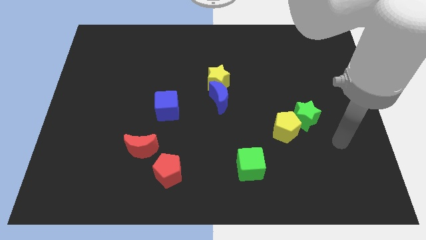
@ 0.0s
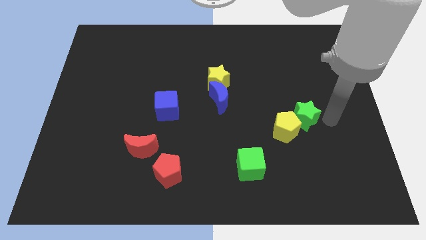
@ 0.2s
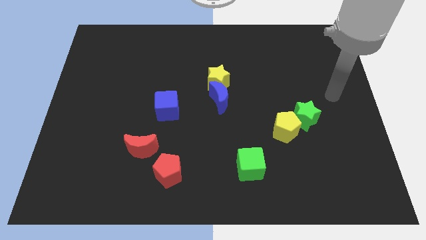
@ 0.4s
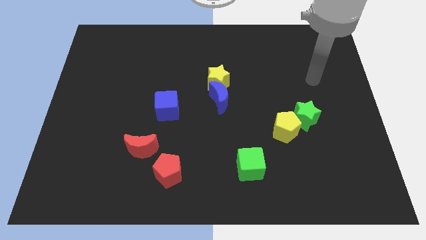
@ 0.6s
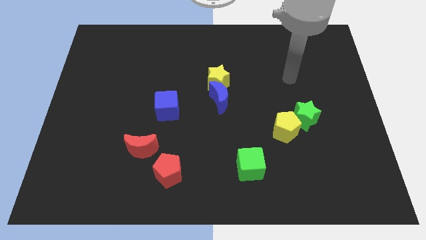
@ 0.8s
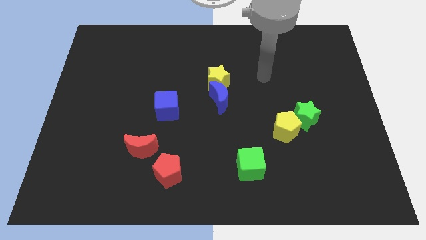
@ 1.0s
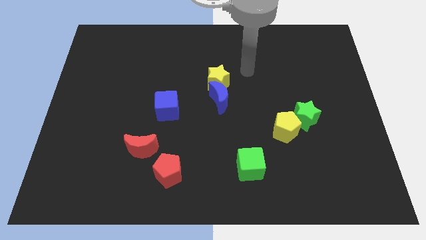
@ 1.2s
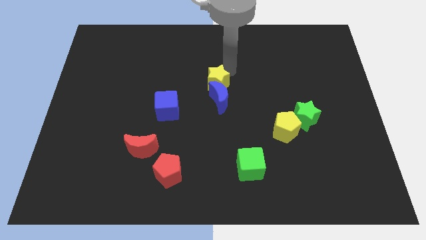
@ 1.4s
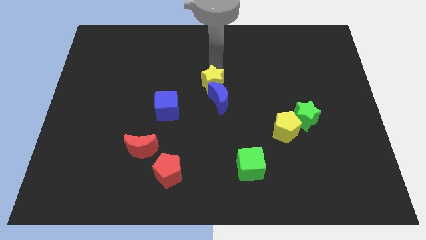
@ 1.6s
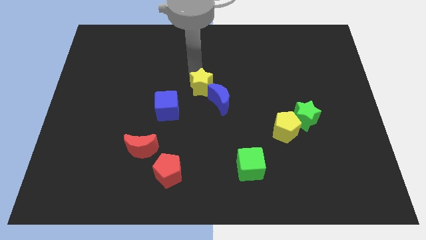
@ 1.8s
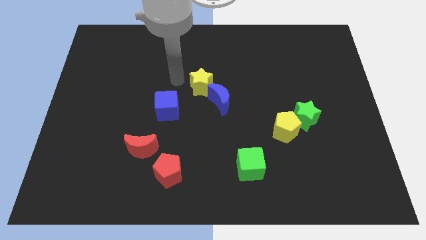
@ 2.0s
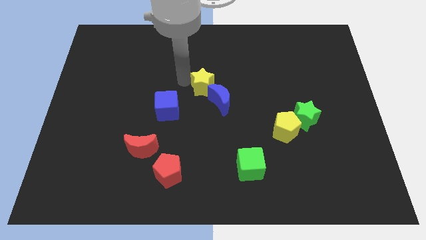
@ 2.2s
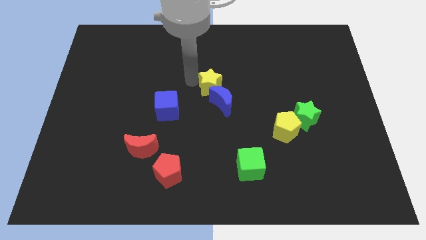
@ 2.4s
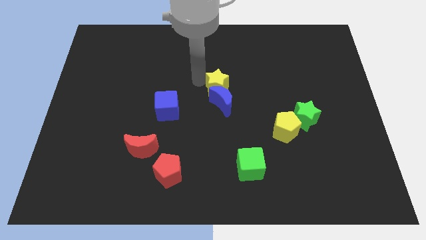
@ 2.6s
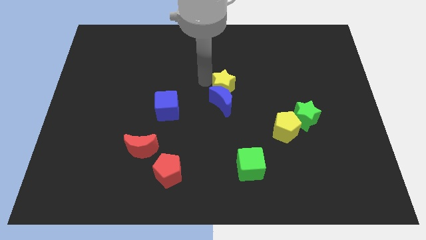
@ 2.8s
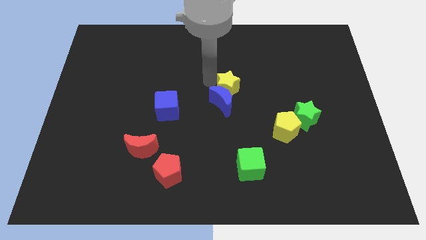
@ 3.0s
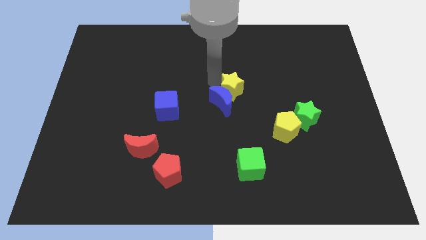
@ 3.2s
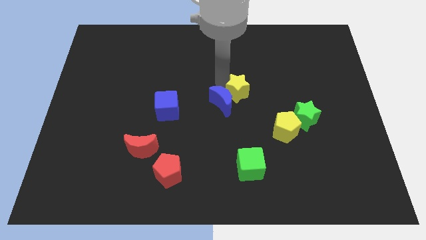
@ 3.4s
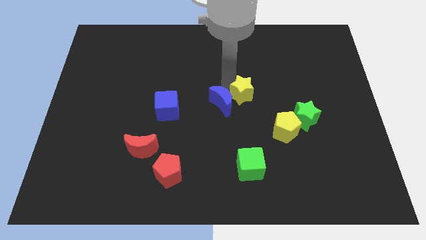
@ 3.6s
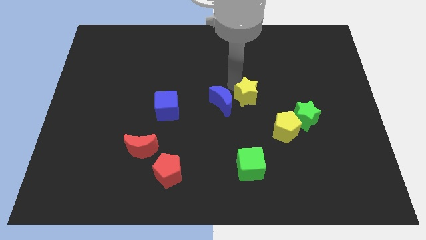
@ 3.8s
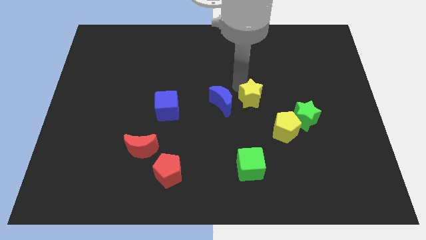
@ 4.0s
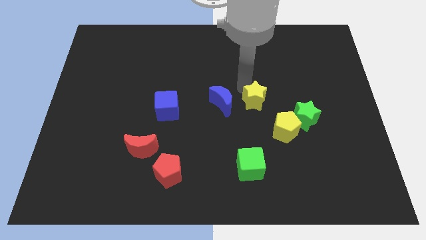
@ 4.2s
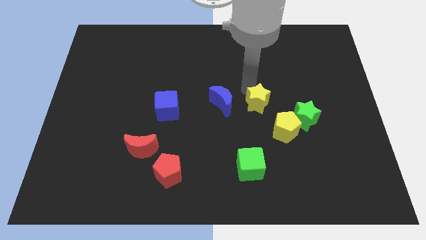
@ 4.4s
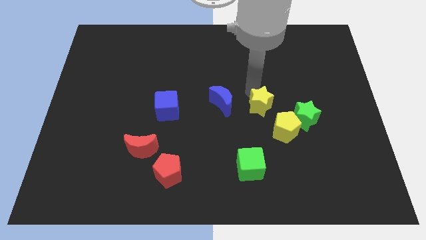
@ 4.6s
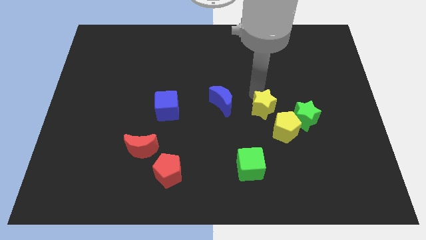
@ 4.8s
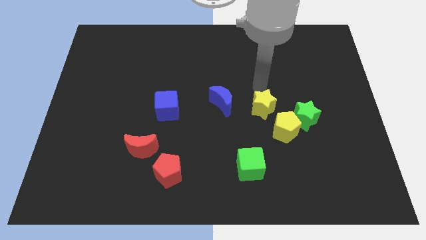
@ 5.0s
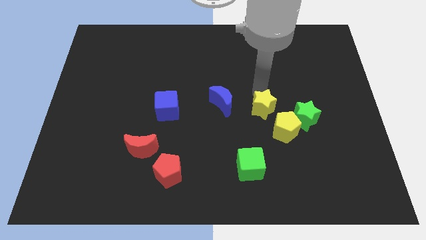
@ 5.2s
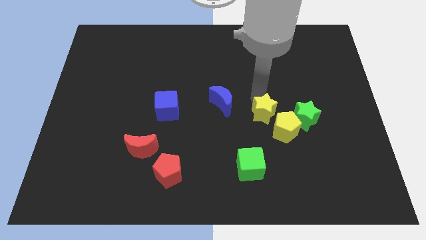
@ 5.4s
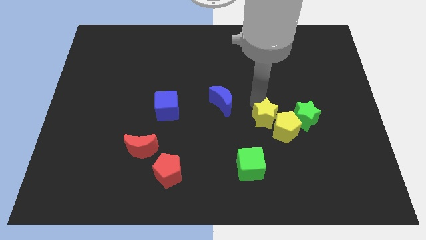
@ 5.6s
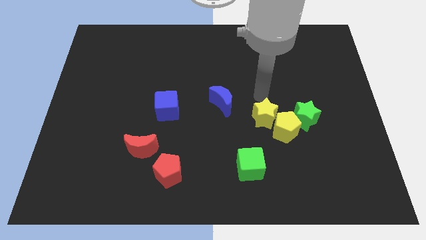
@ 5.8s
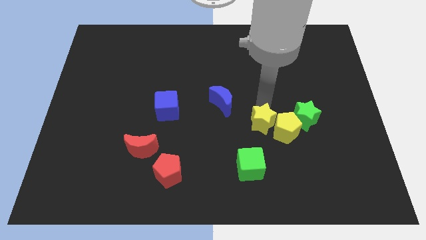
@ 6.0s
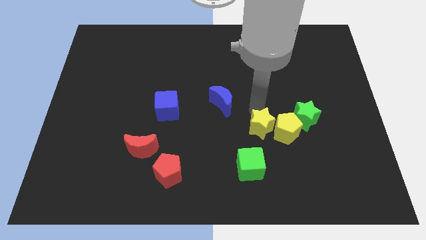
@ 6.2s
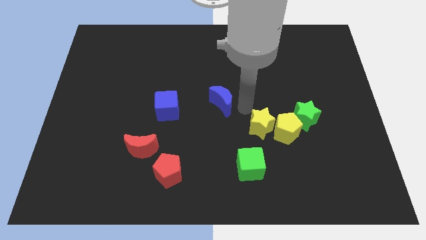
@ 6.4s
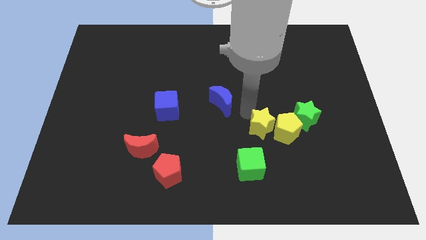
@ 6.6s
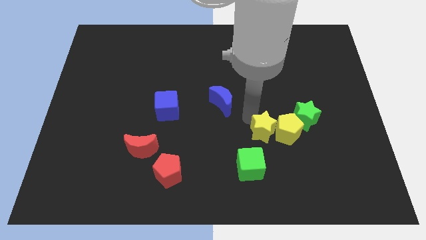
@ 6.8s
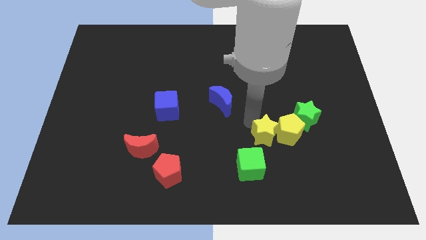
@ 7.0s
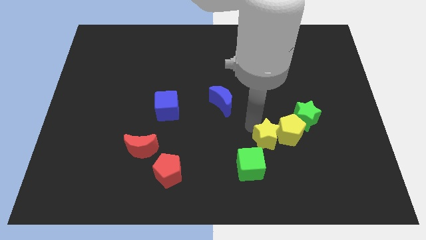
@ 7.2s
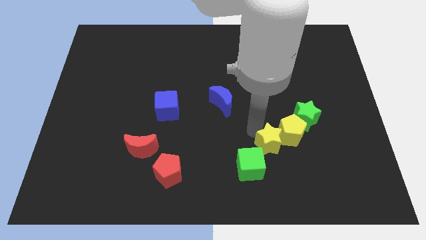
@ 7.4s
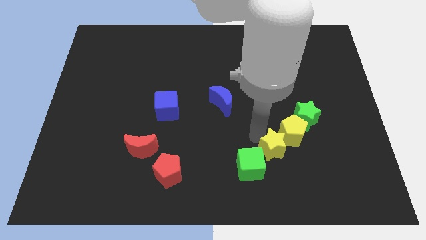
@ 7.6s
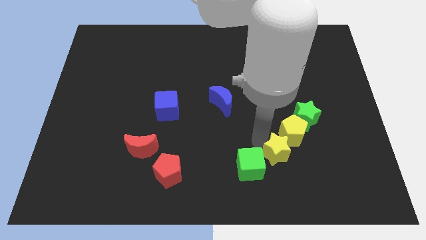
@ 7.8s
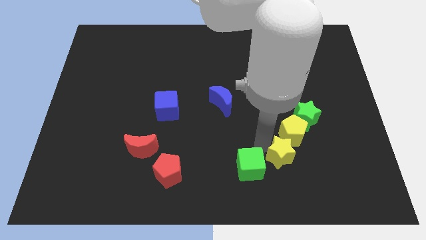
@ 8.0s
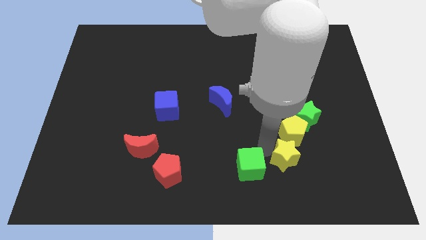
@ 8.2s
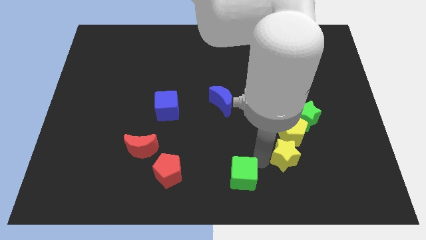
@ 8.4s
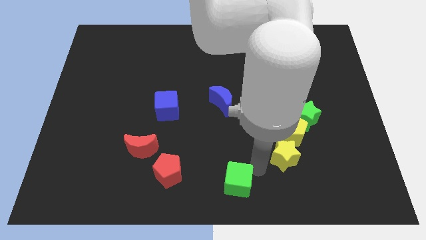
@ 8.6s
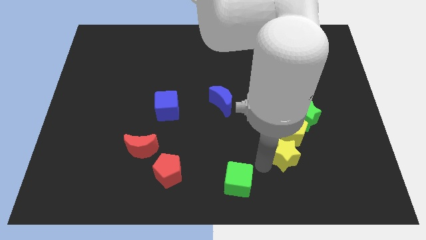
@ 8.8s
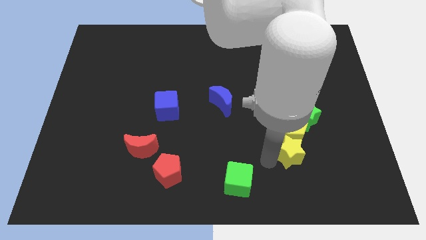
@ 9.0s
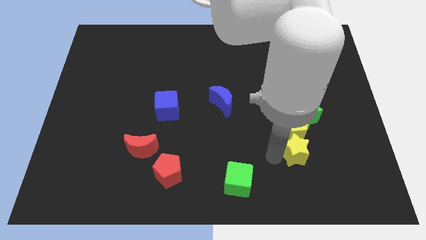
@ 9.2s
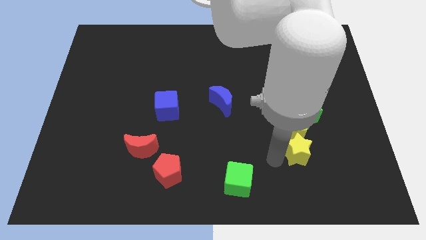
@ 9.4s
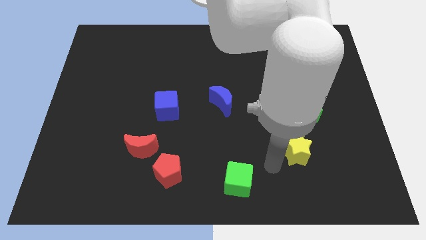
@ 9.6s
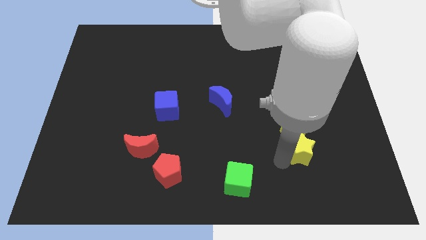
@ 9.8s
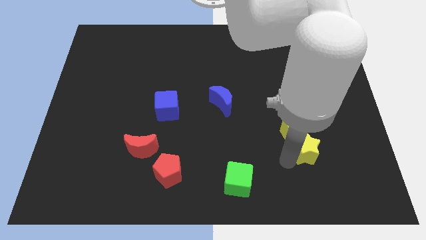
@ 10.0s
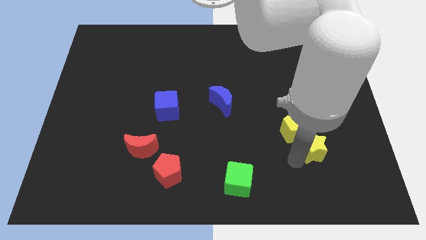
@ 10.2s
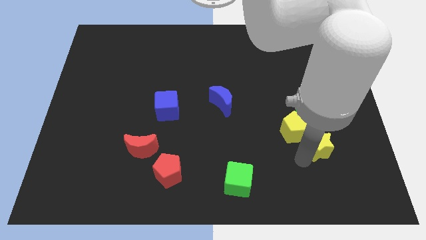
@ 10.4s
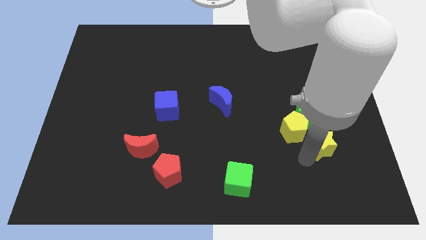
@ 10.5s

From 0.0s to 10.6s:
slide the yellow star to the bottom right side of the green star

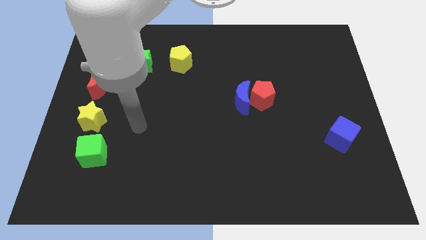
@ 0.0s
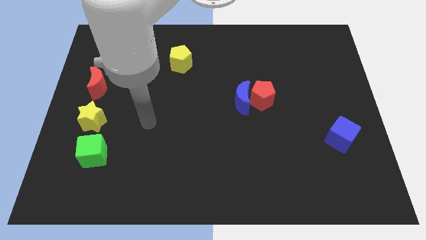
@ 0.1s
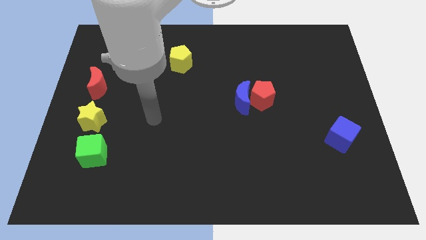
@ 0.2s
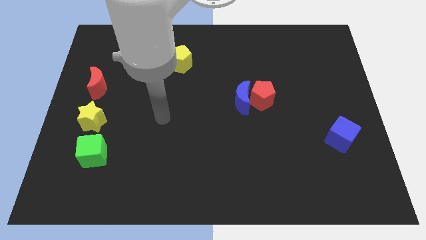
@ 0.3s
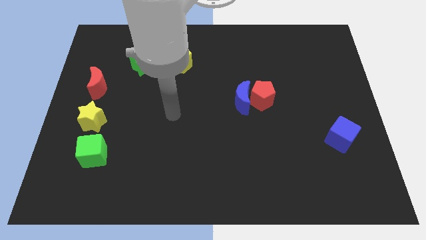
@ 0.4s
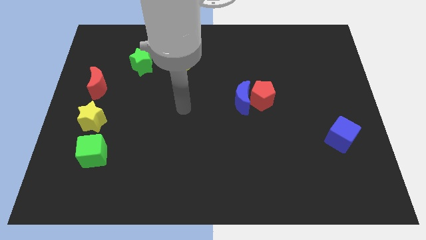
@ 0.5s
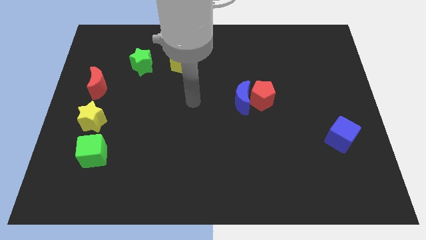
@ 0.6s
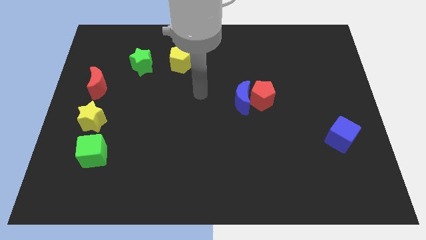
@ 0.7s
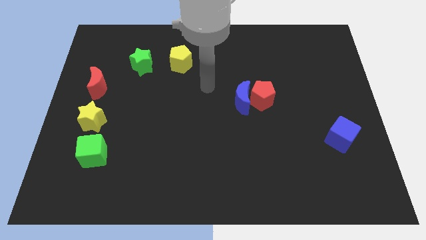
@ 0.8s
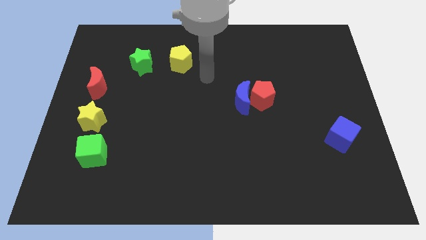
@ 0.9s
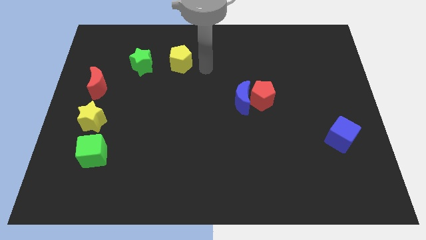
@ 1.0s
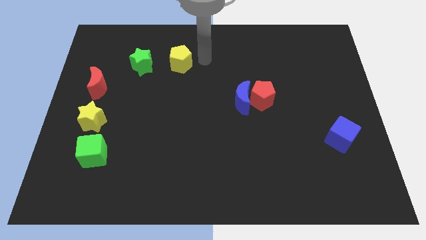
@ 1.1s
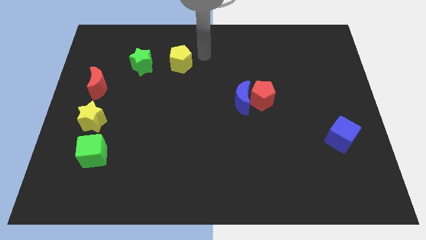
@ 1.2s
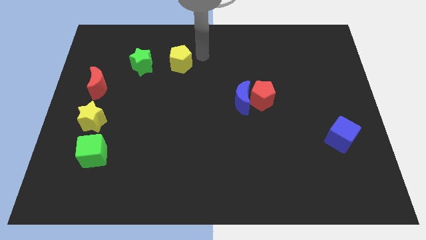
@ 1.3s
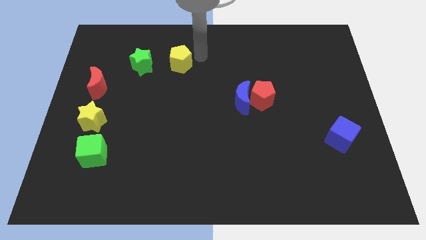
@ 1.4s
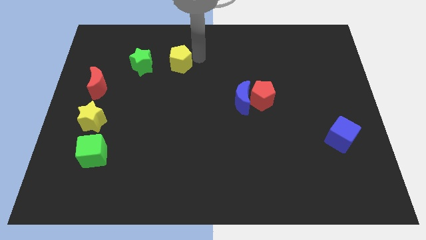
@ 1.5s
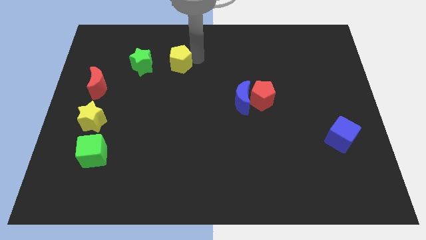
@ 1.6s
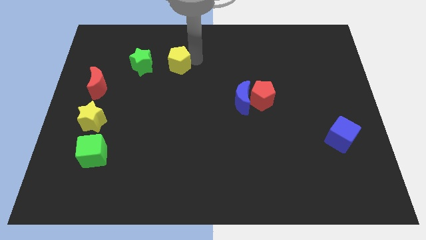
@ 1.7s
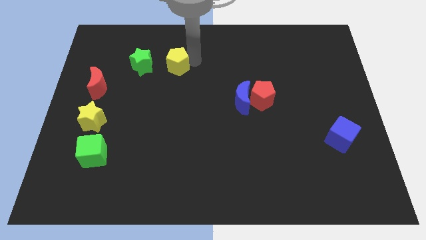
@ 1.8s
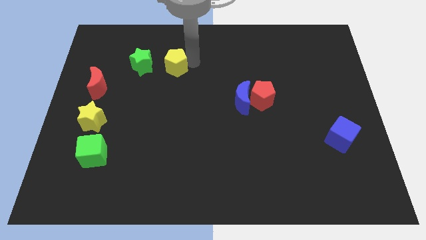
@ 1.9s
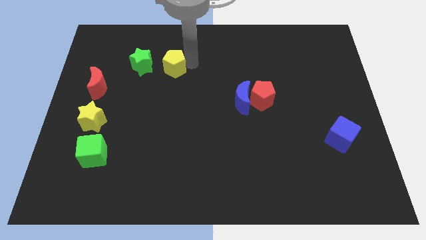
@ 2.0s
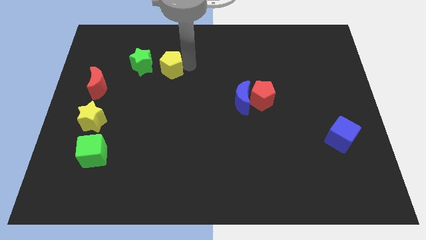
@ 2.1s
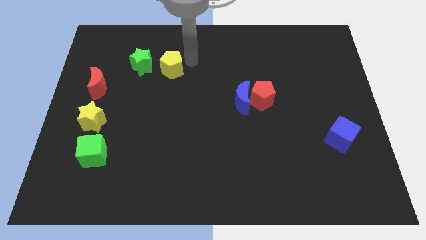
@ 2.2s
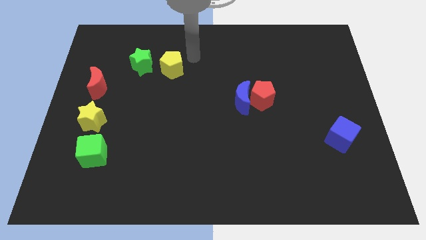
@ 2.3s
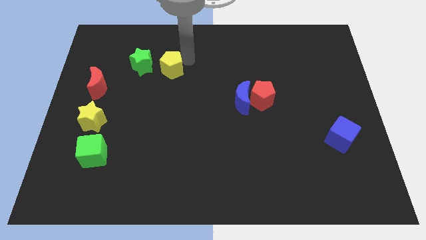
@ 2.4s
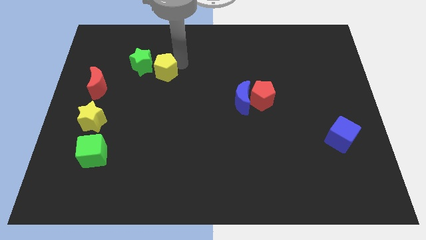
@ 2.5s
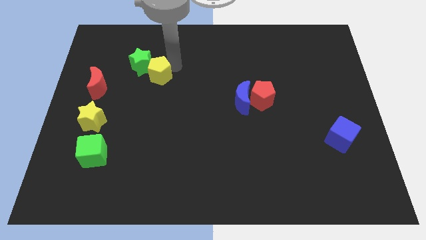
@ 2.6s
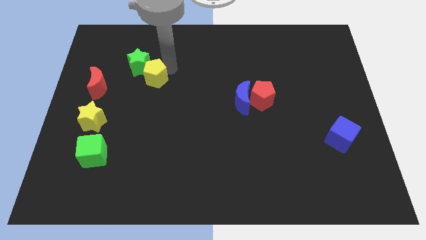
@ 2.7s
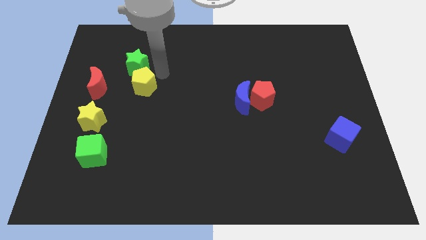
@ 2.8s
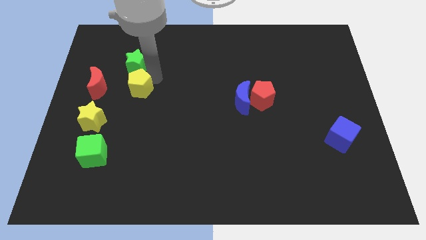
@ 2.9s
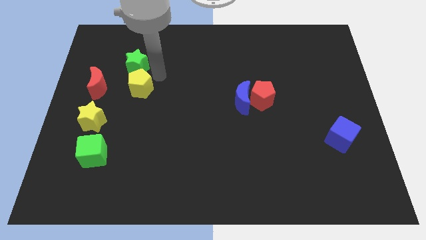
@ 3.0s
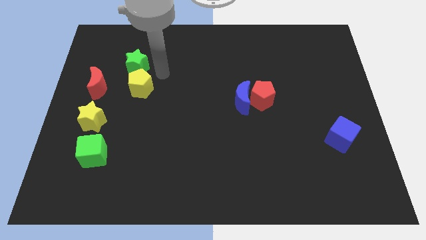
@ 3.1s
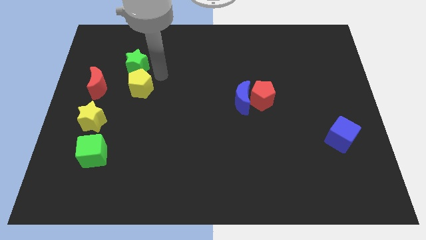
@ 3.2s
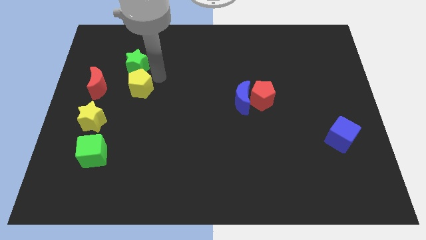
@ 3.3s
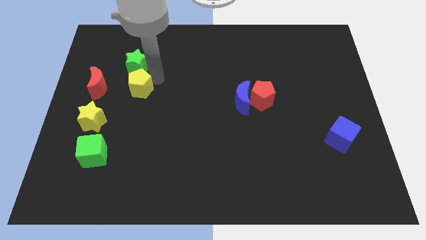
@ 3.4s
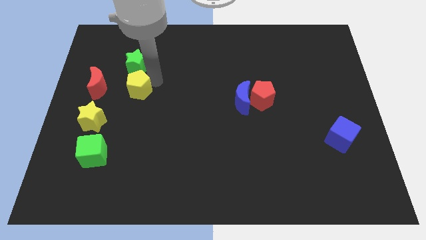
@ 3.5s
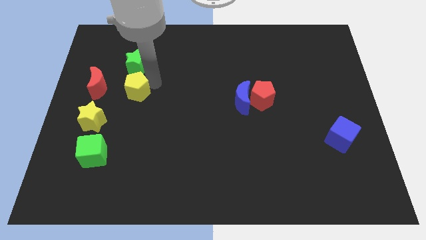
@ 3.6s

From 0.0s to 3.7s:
put the yellow pentagon diagonally up and to the right of the yellow star
